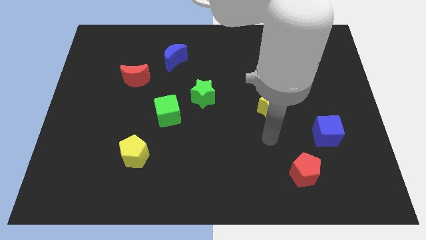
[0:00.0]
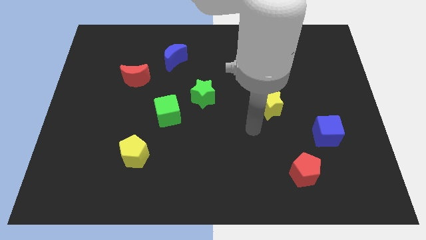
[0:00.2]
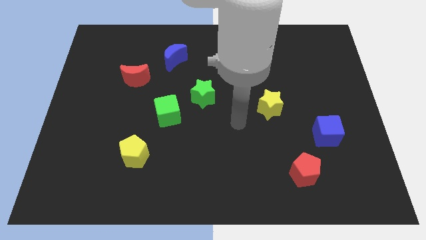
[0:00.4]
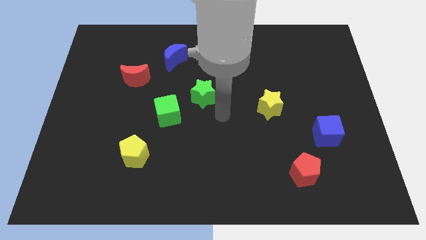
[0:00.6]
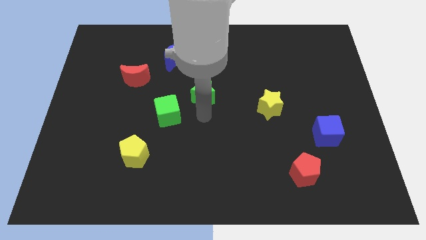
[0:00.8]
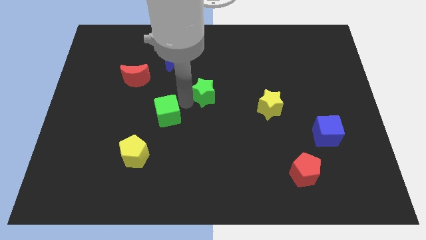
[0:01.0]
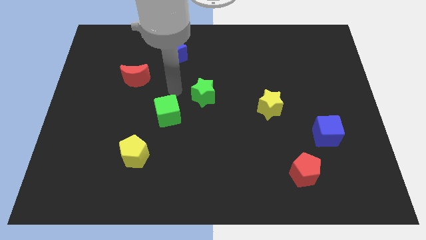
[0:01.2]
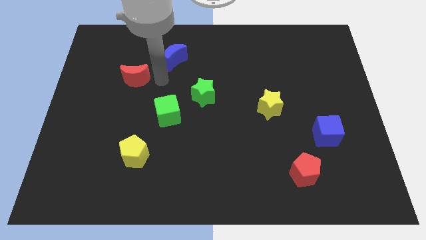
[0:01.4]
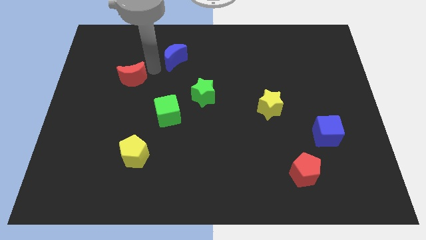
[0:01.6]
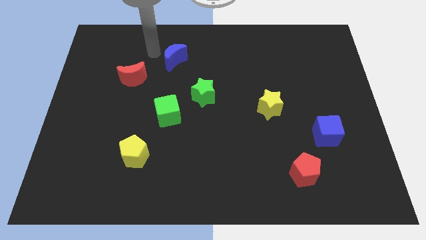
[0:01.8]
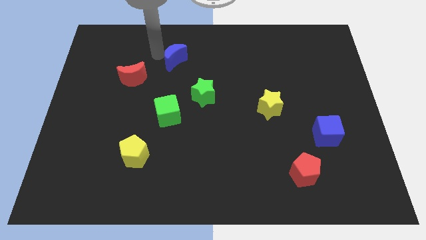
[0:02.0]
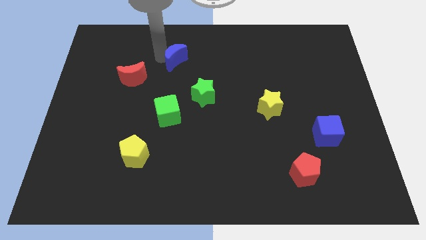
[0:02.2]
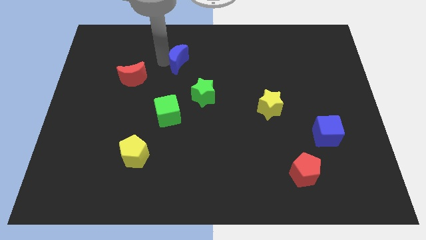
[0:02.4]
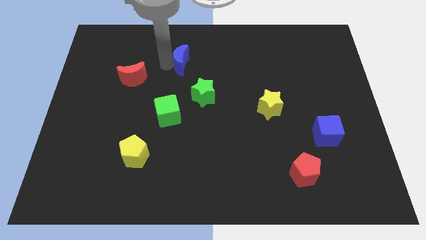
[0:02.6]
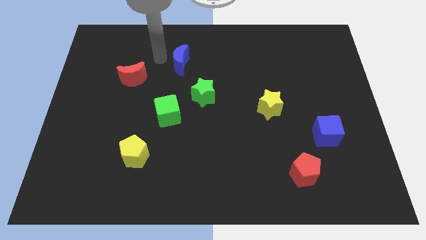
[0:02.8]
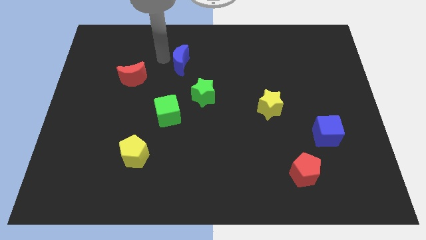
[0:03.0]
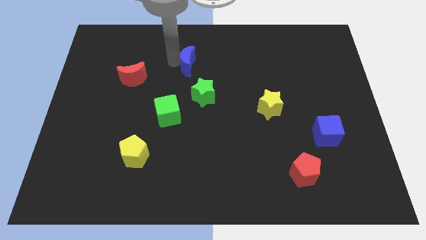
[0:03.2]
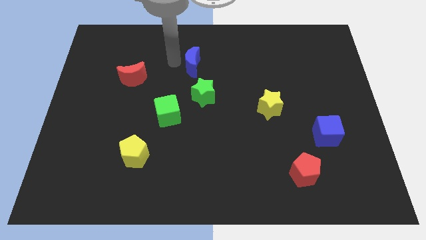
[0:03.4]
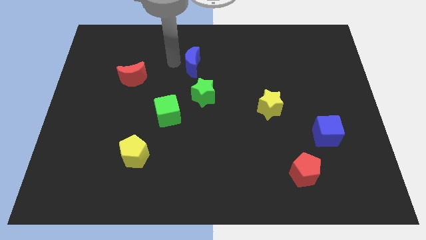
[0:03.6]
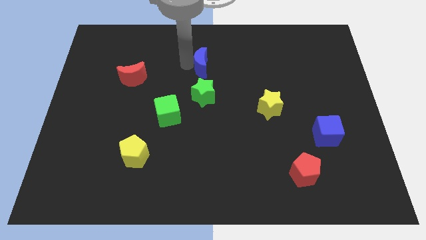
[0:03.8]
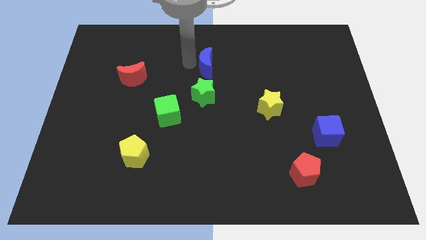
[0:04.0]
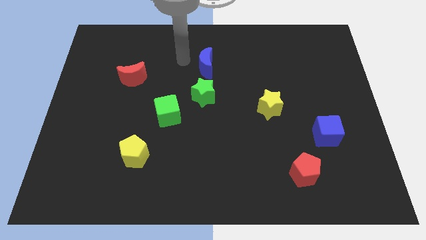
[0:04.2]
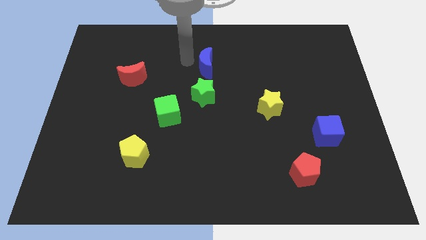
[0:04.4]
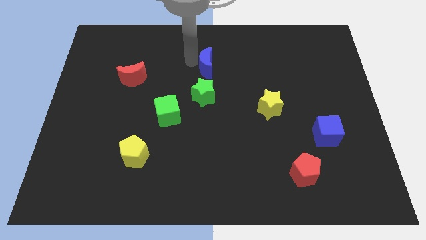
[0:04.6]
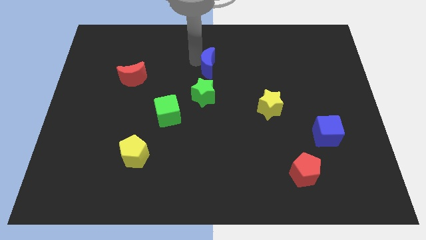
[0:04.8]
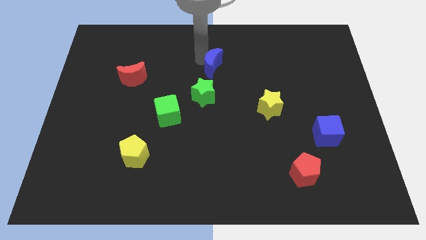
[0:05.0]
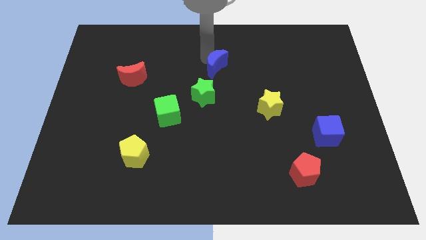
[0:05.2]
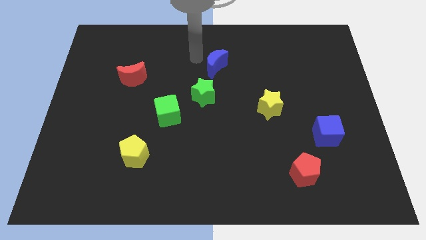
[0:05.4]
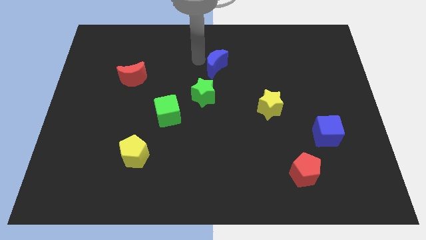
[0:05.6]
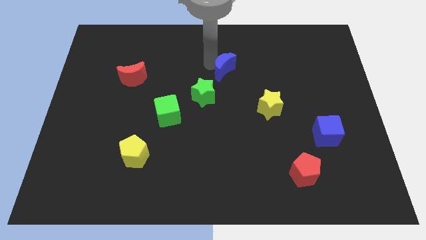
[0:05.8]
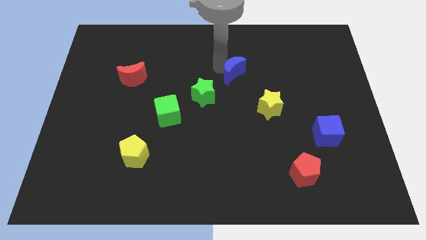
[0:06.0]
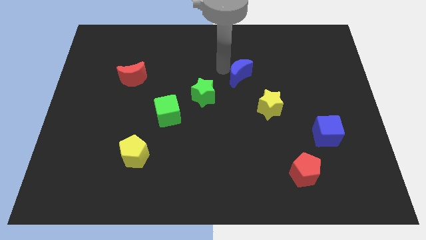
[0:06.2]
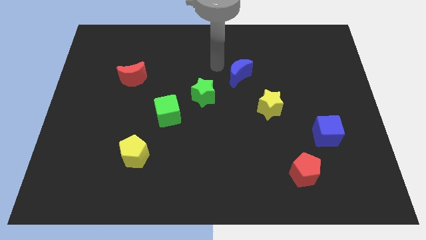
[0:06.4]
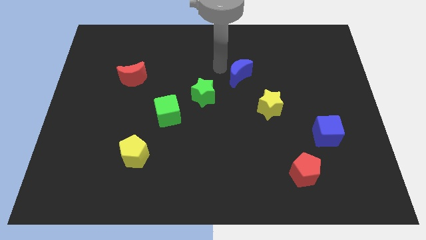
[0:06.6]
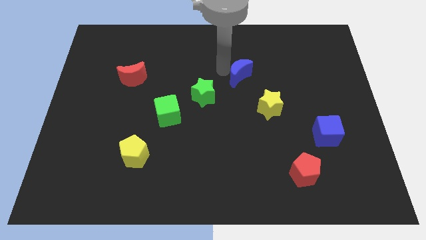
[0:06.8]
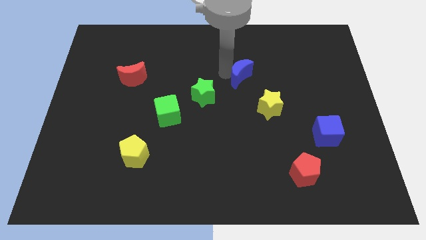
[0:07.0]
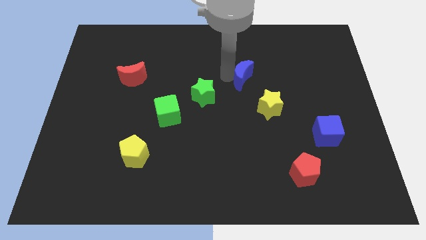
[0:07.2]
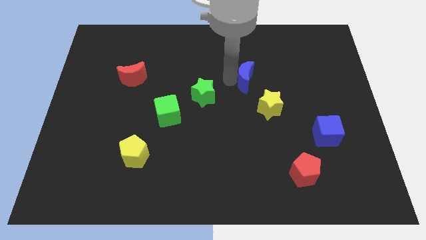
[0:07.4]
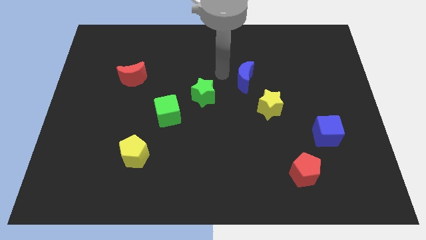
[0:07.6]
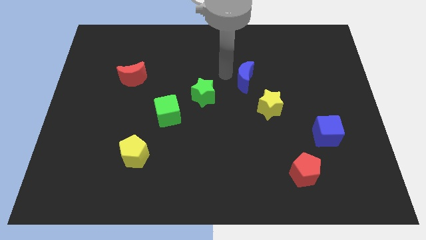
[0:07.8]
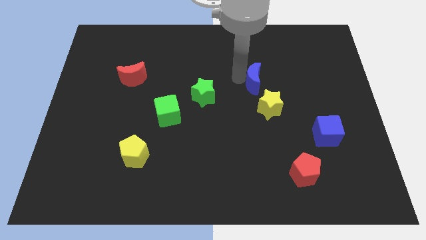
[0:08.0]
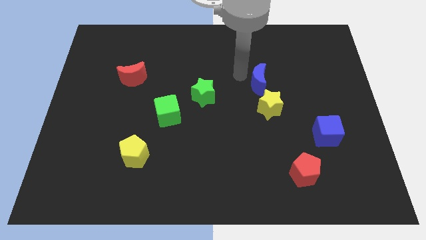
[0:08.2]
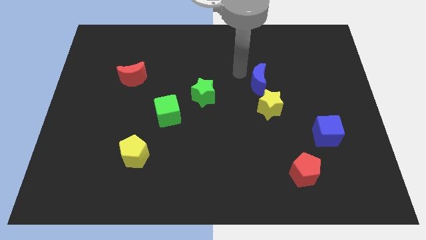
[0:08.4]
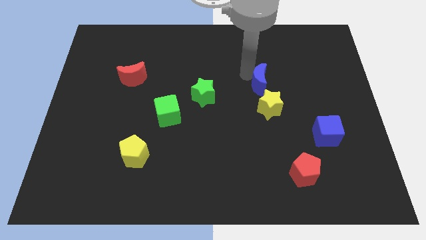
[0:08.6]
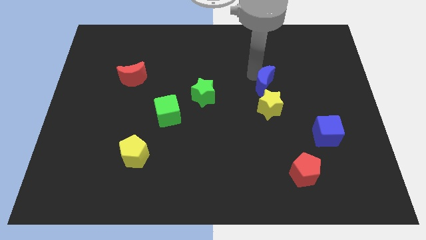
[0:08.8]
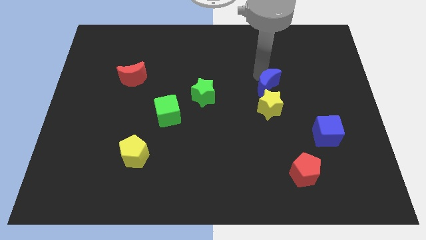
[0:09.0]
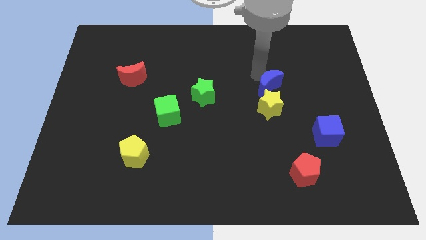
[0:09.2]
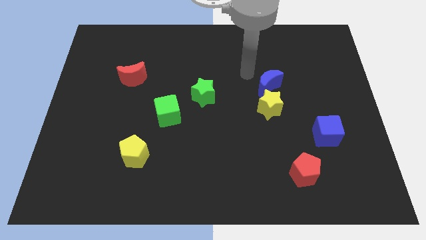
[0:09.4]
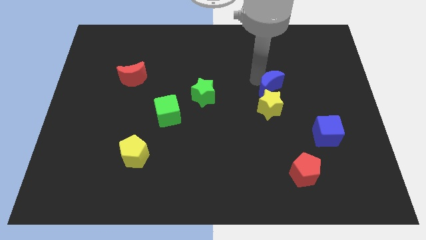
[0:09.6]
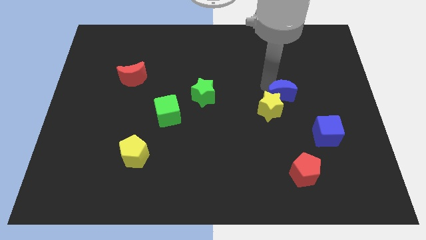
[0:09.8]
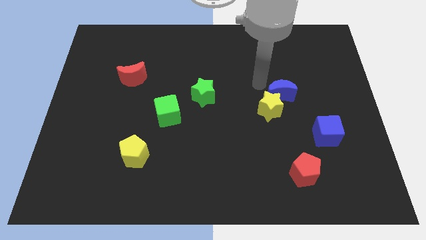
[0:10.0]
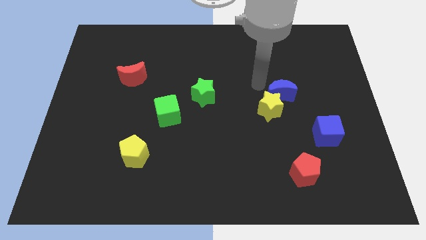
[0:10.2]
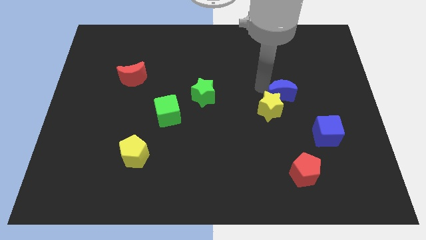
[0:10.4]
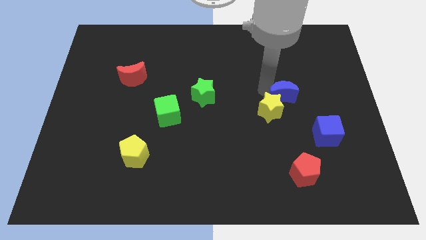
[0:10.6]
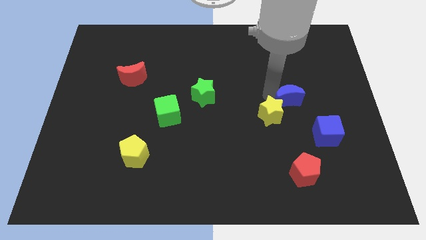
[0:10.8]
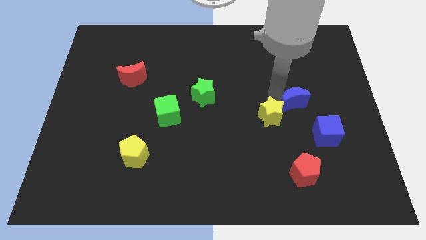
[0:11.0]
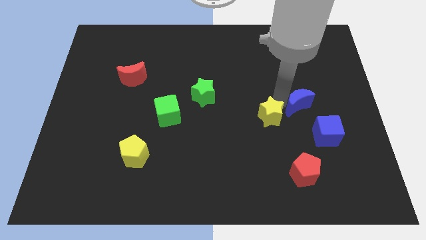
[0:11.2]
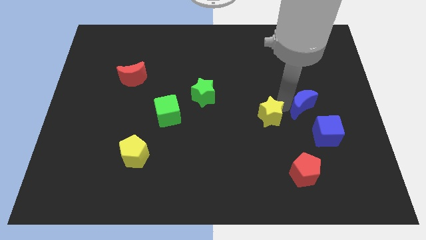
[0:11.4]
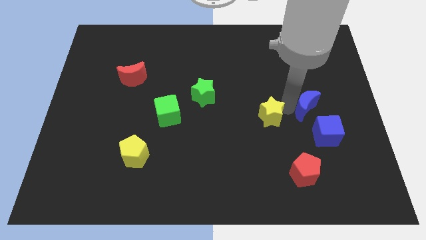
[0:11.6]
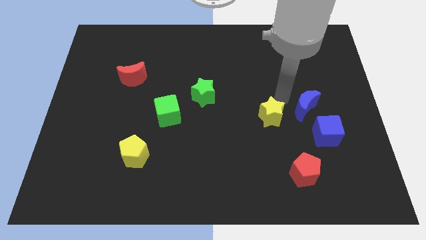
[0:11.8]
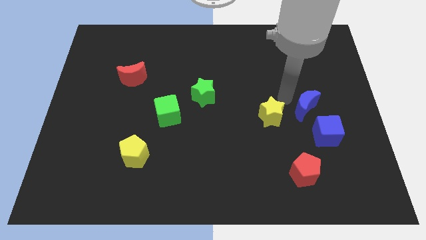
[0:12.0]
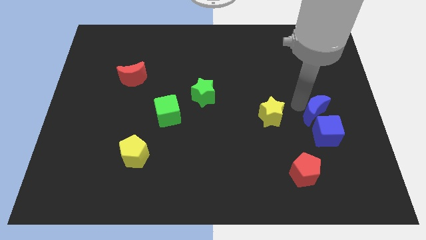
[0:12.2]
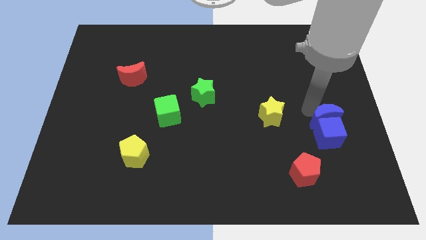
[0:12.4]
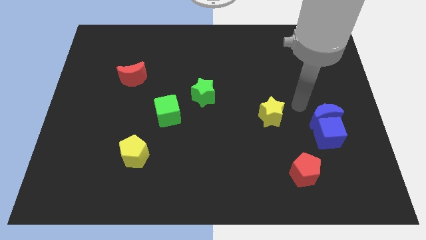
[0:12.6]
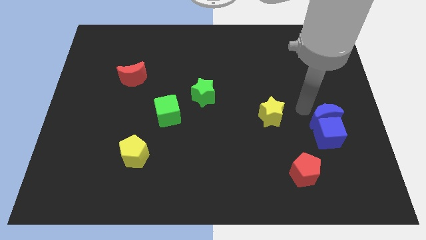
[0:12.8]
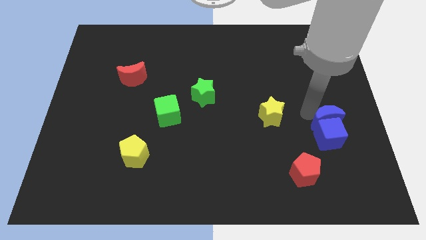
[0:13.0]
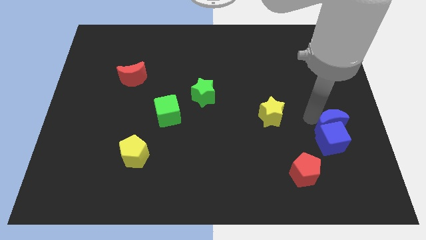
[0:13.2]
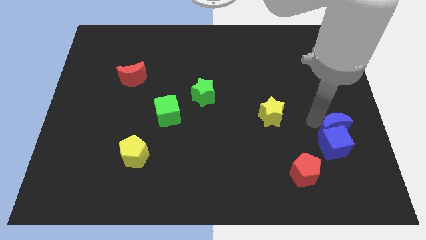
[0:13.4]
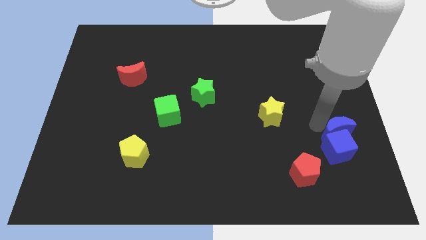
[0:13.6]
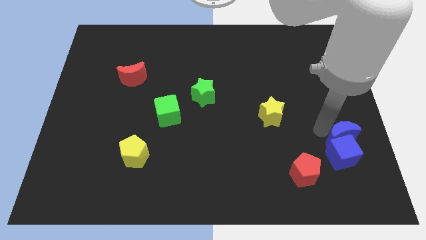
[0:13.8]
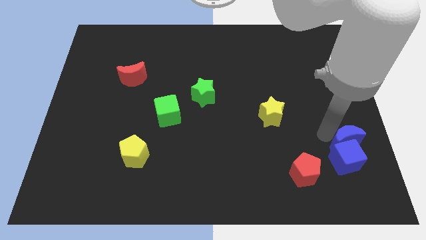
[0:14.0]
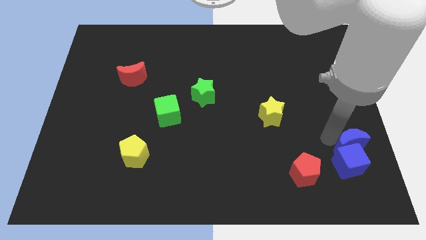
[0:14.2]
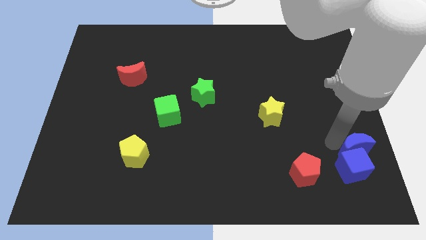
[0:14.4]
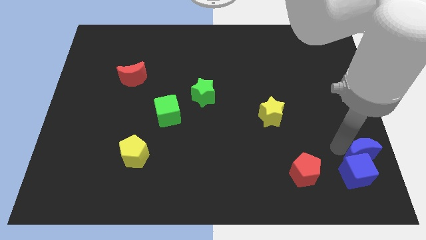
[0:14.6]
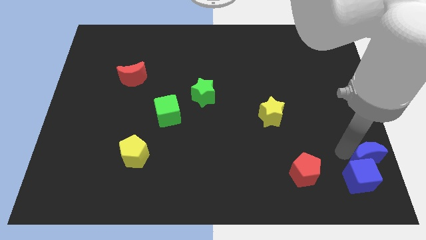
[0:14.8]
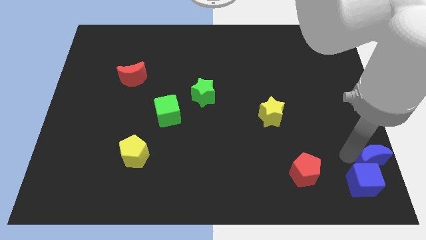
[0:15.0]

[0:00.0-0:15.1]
push the blue moon to the lower right corner

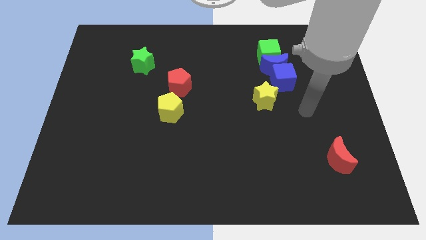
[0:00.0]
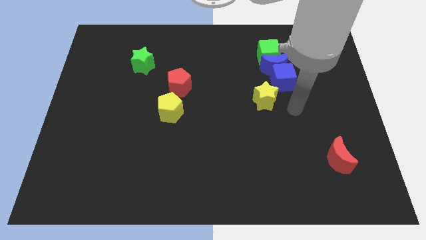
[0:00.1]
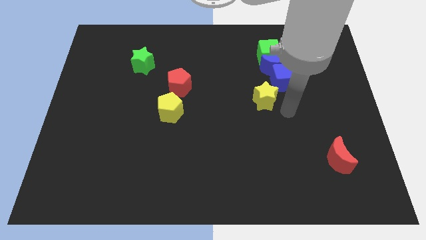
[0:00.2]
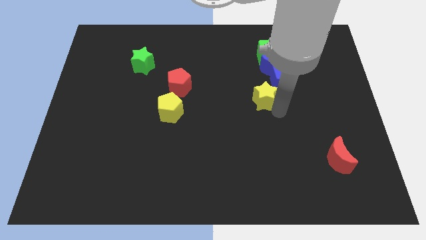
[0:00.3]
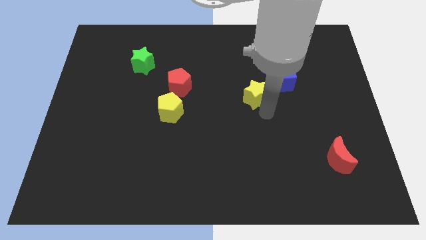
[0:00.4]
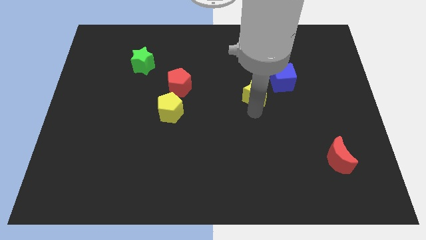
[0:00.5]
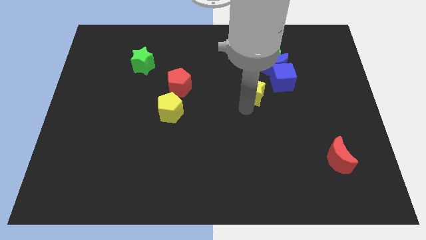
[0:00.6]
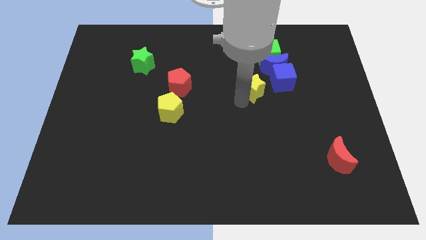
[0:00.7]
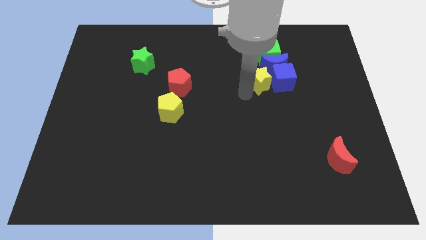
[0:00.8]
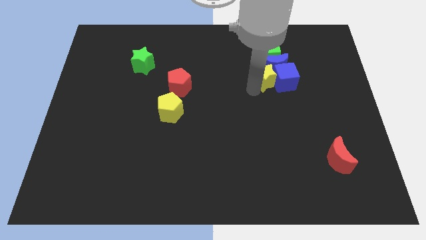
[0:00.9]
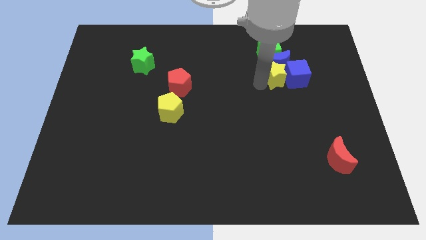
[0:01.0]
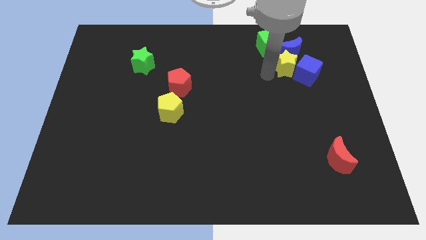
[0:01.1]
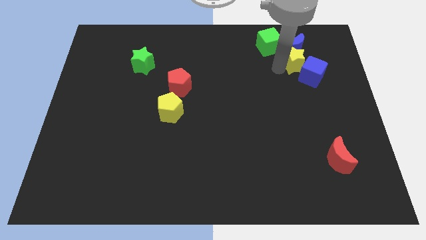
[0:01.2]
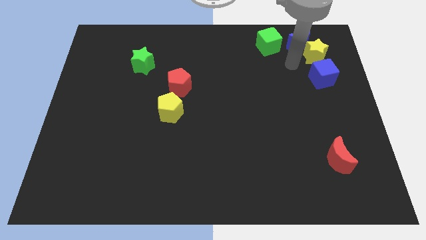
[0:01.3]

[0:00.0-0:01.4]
slide the blue cube to the center right
